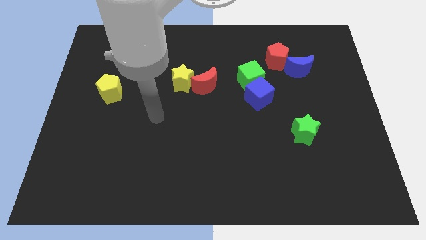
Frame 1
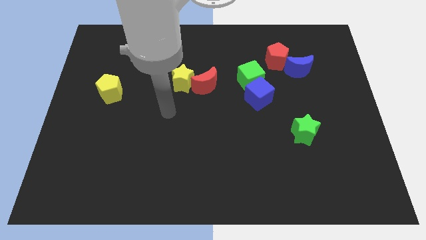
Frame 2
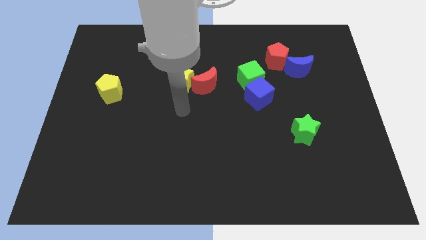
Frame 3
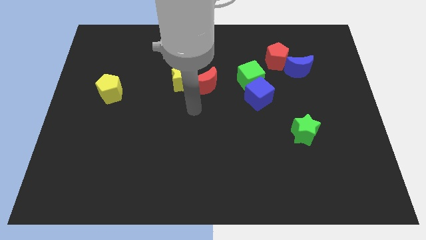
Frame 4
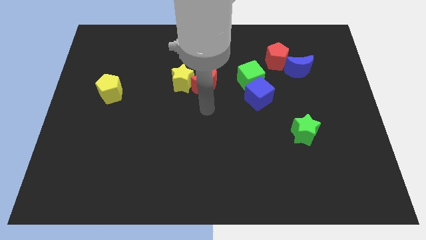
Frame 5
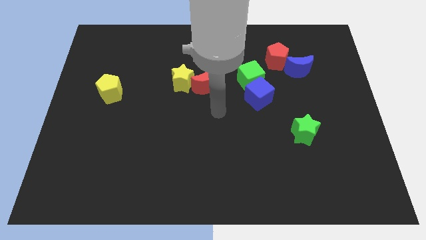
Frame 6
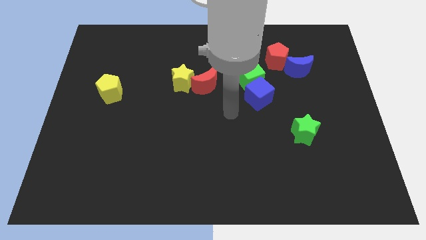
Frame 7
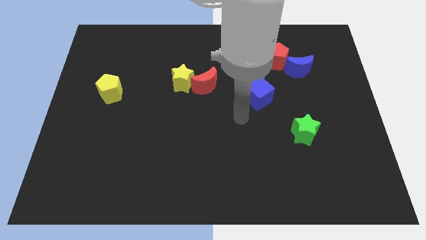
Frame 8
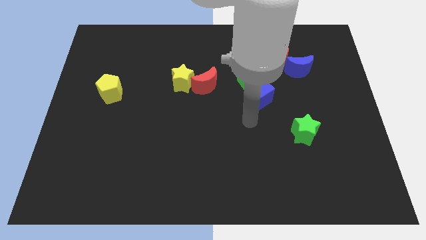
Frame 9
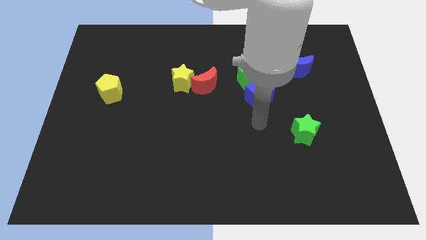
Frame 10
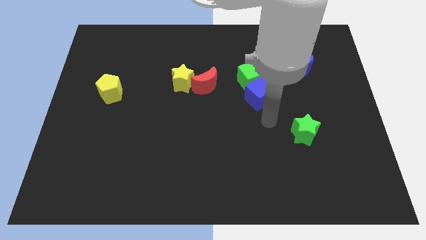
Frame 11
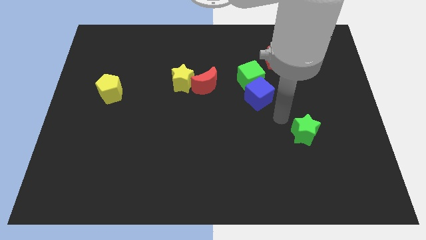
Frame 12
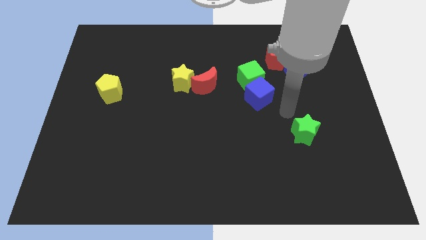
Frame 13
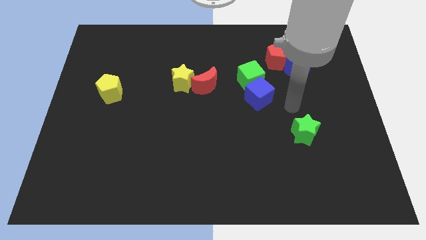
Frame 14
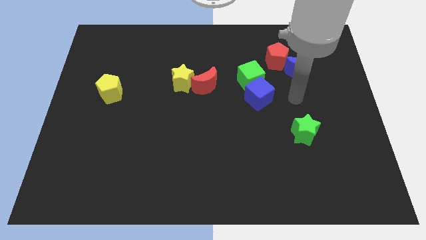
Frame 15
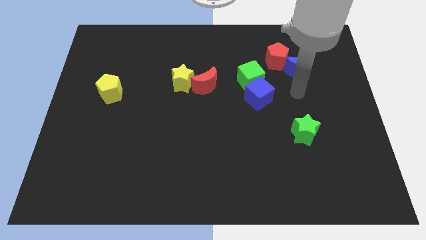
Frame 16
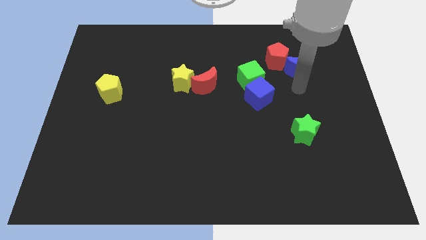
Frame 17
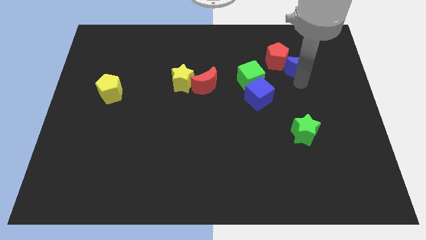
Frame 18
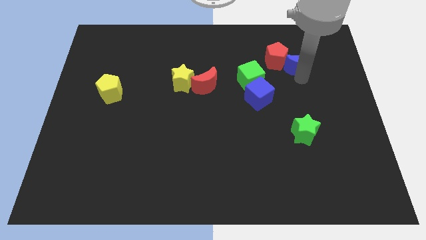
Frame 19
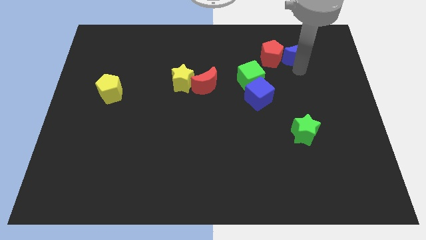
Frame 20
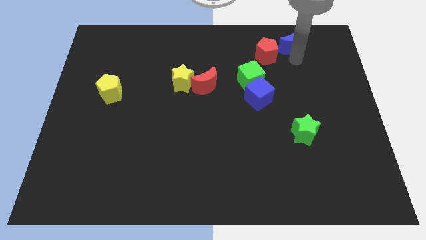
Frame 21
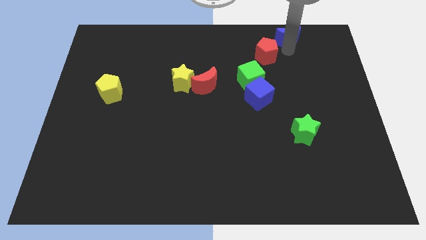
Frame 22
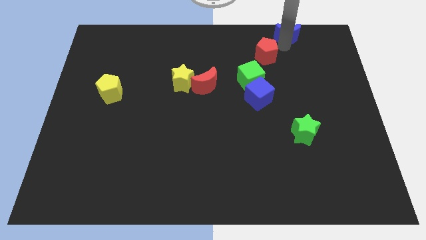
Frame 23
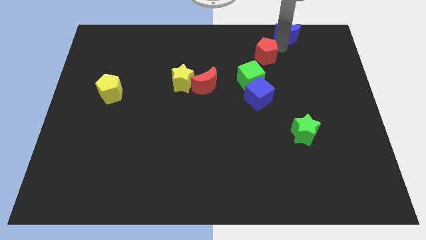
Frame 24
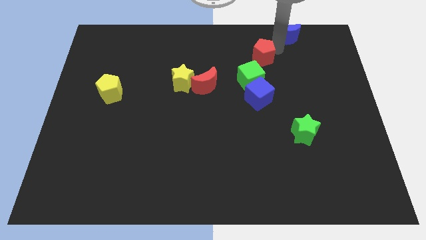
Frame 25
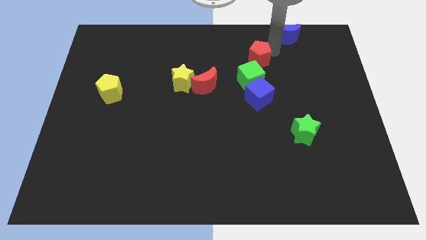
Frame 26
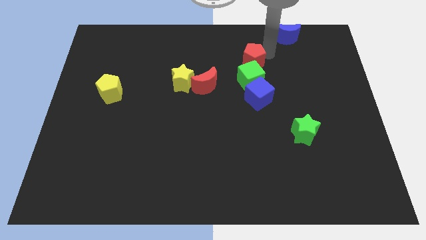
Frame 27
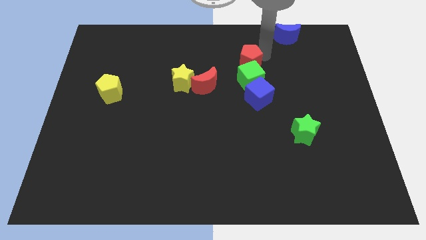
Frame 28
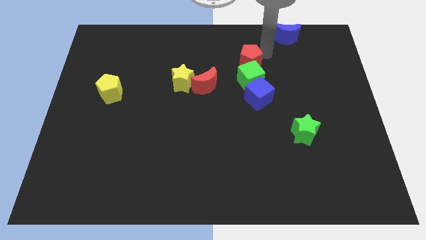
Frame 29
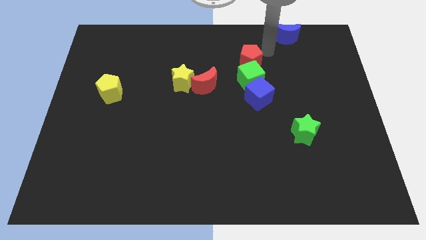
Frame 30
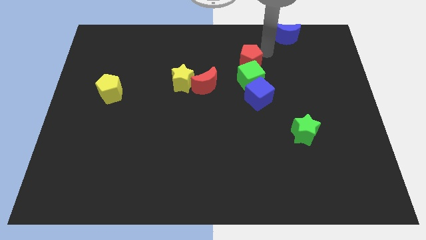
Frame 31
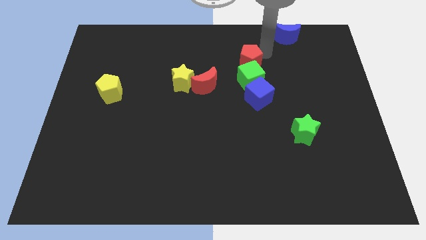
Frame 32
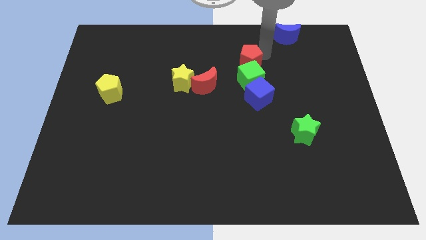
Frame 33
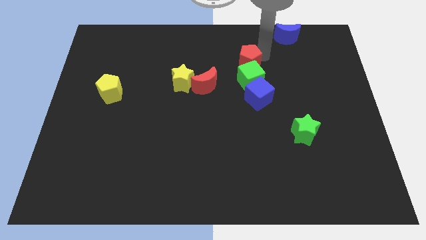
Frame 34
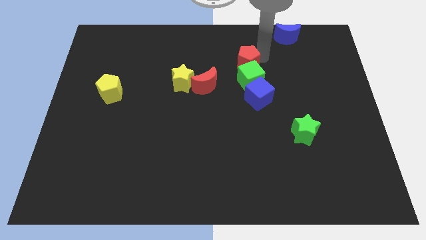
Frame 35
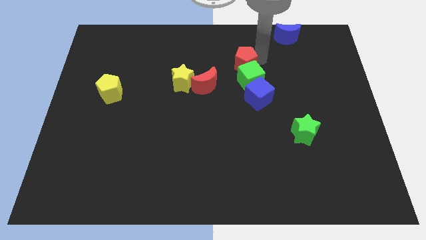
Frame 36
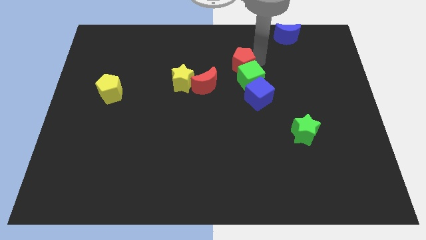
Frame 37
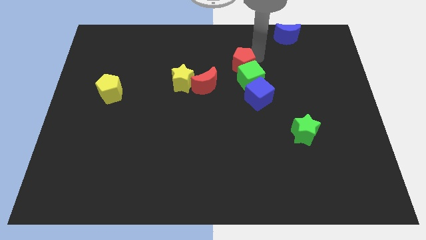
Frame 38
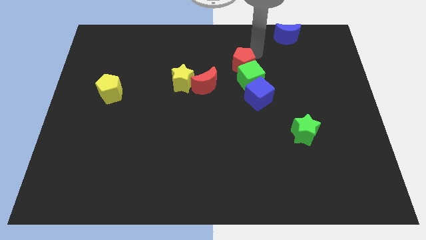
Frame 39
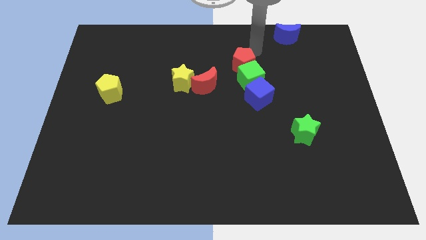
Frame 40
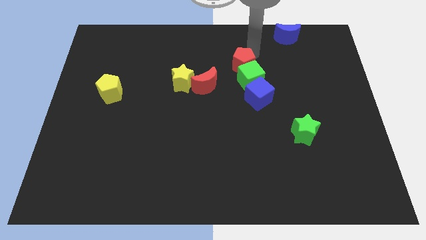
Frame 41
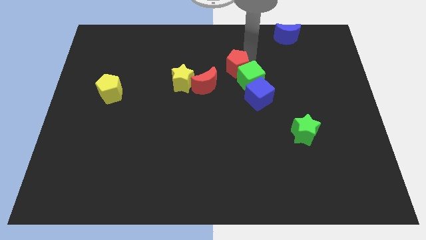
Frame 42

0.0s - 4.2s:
slide the red pentagon downwards and then left slightly

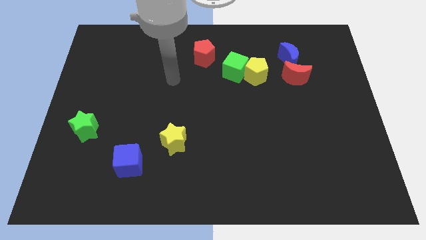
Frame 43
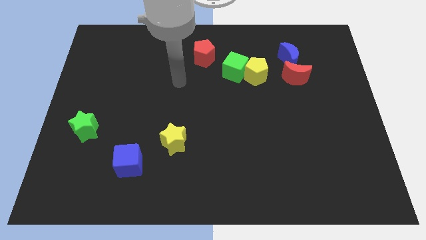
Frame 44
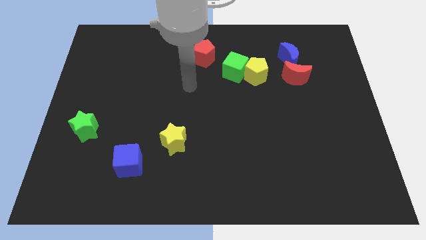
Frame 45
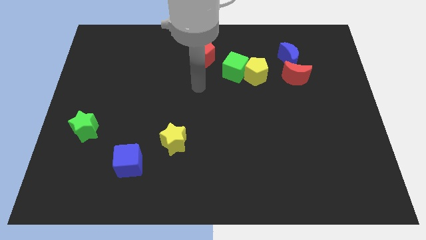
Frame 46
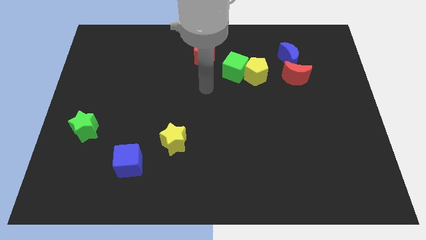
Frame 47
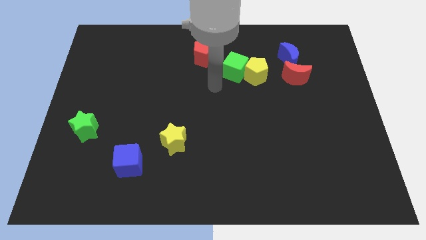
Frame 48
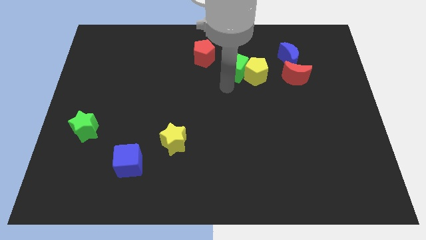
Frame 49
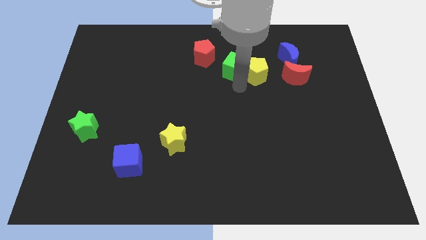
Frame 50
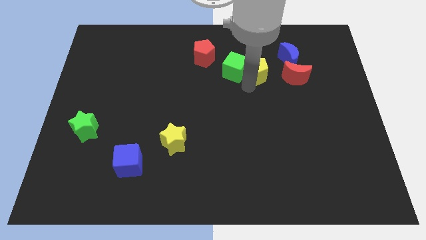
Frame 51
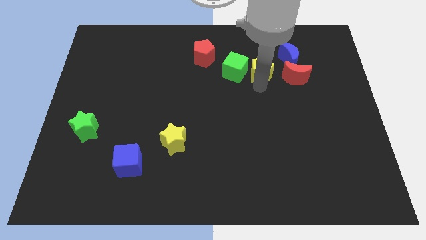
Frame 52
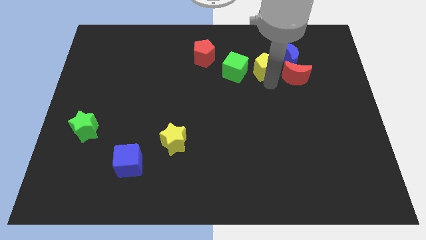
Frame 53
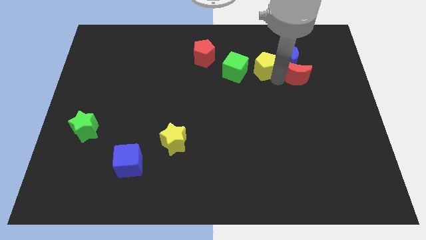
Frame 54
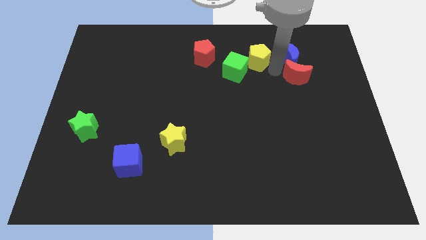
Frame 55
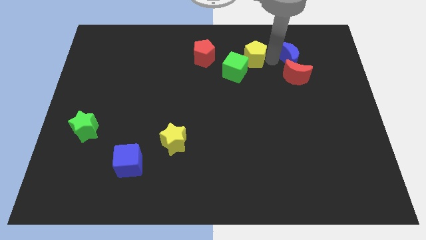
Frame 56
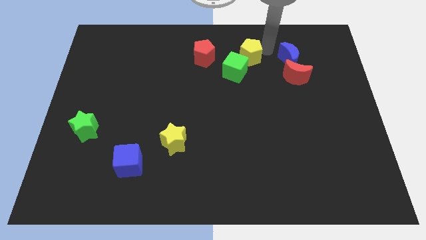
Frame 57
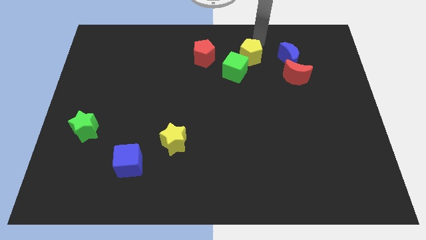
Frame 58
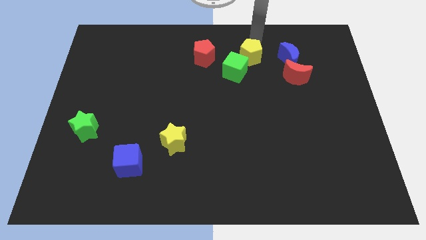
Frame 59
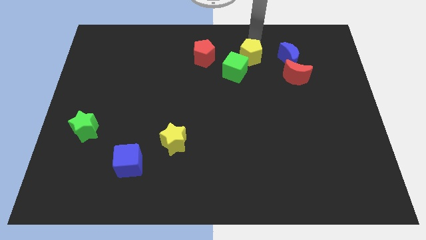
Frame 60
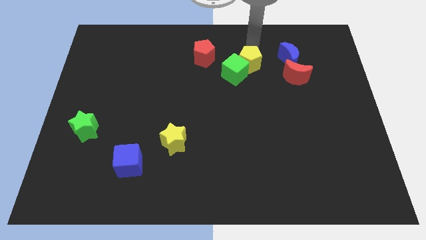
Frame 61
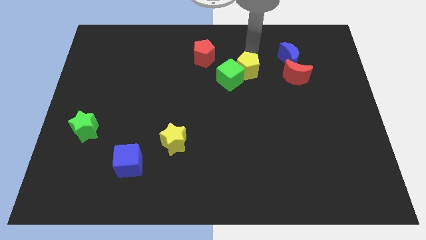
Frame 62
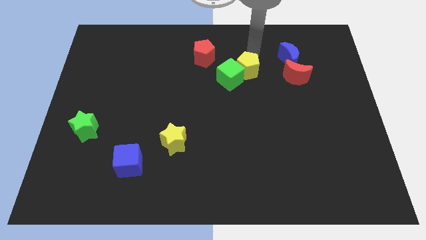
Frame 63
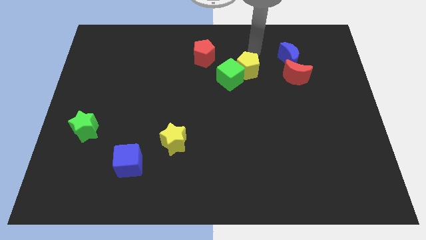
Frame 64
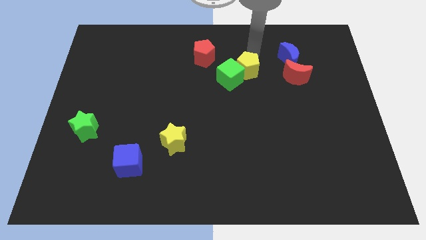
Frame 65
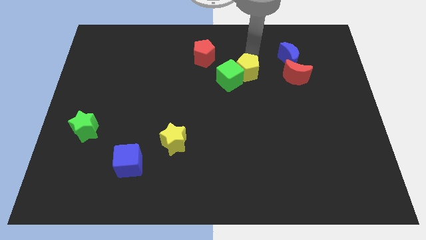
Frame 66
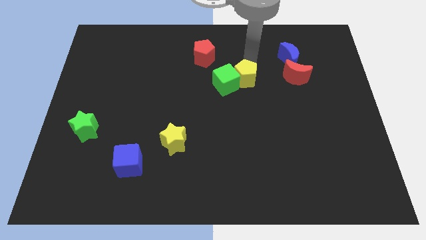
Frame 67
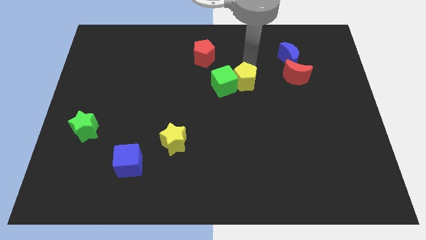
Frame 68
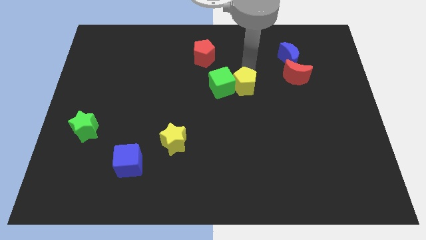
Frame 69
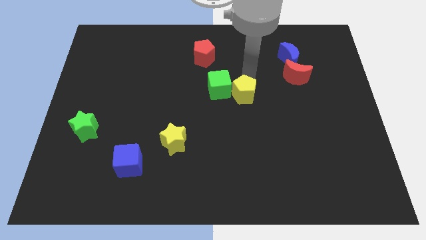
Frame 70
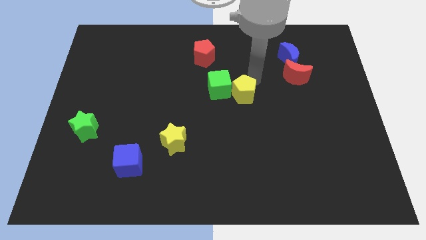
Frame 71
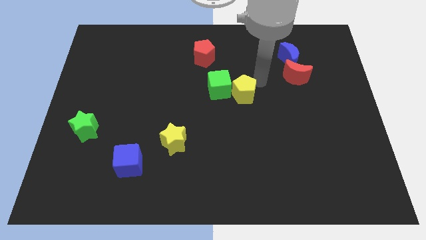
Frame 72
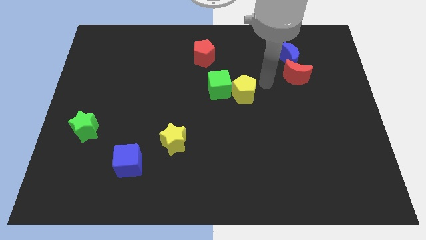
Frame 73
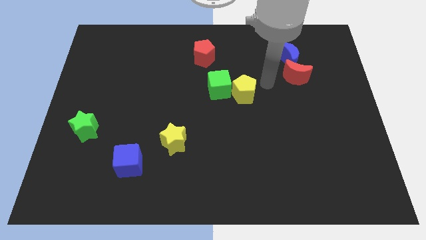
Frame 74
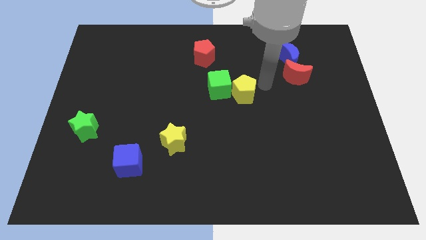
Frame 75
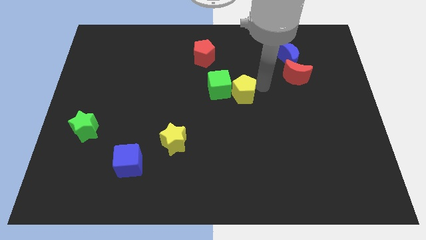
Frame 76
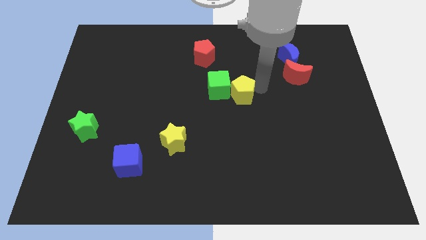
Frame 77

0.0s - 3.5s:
move the yellow pentagon a little bit down and to the left diagonally
